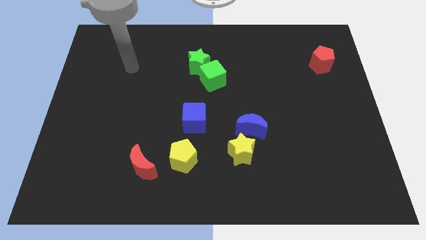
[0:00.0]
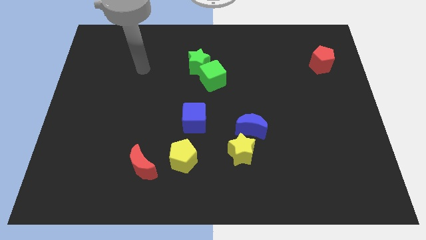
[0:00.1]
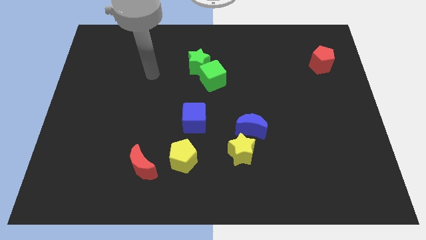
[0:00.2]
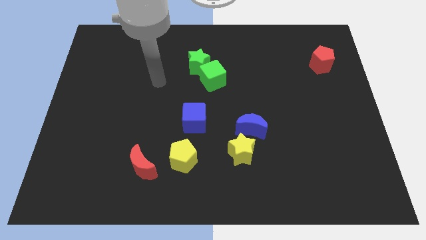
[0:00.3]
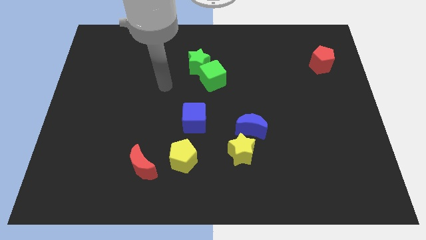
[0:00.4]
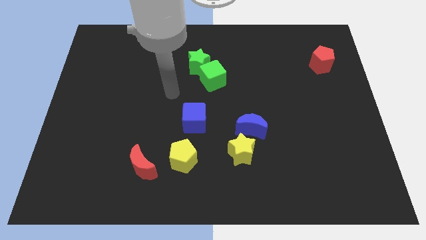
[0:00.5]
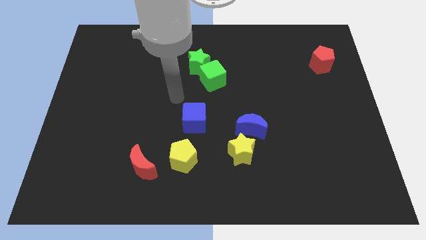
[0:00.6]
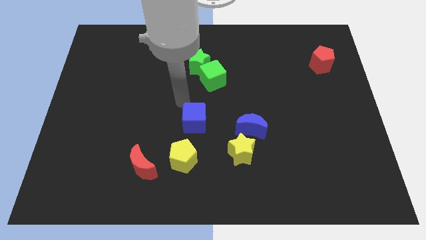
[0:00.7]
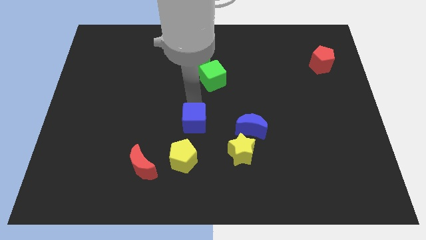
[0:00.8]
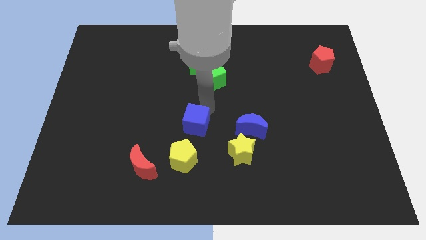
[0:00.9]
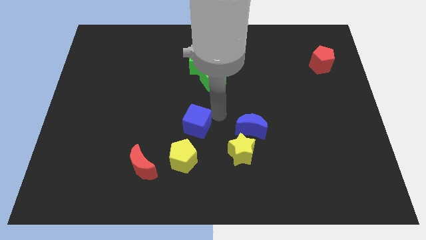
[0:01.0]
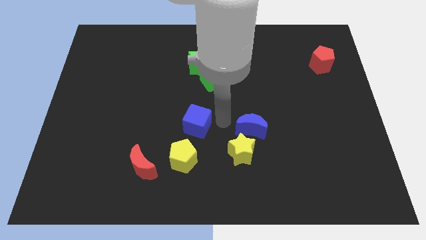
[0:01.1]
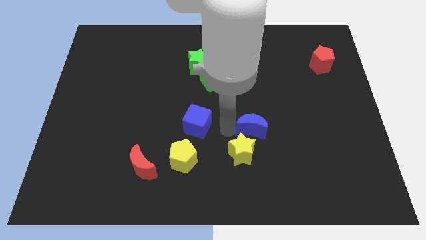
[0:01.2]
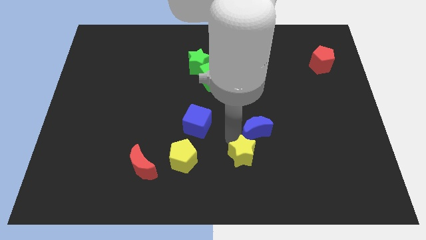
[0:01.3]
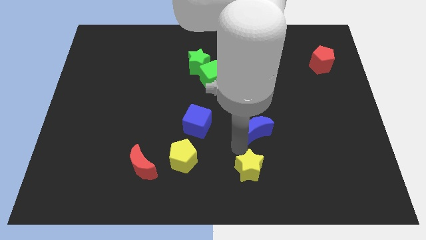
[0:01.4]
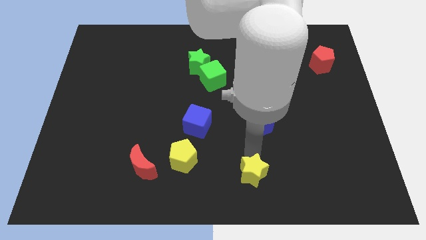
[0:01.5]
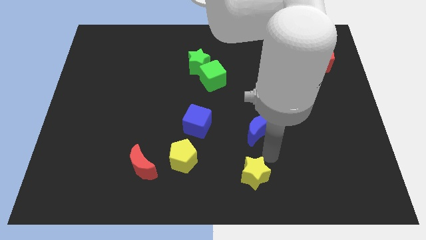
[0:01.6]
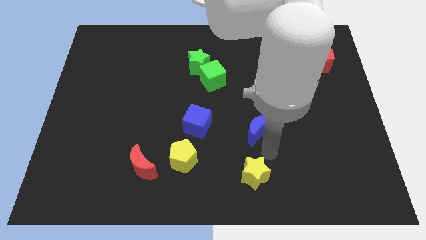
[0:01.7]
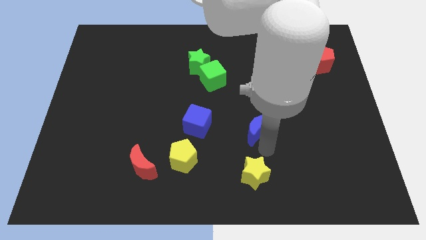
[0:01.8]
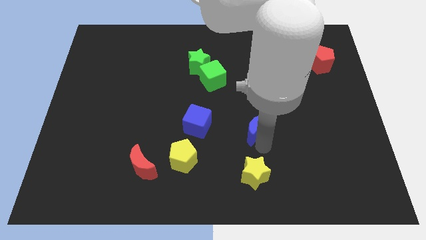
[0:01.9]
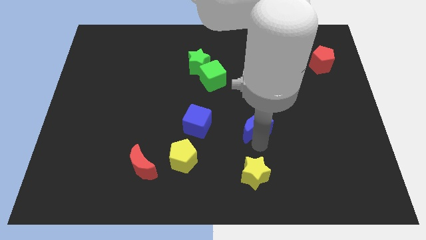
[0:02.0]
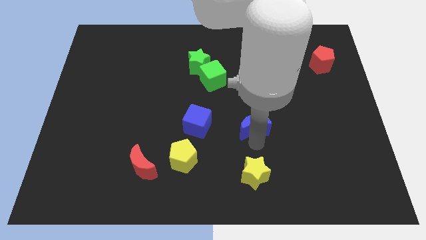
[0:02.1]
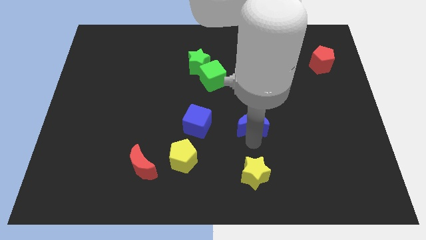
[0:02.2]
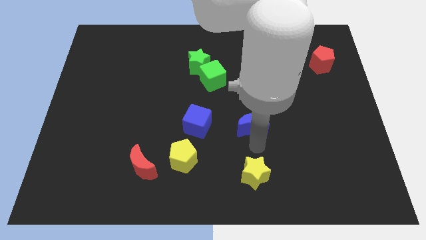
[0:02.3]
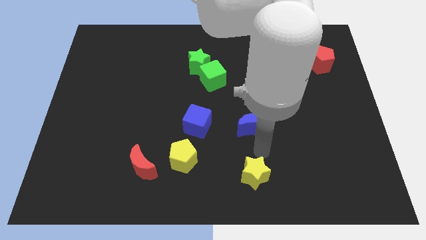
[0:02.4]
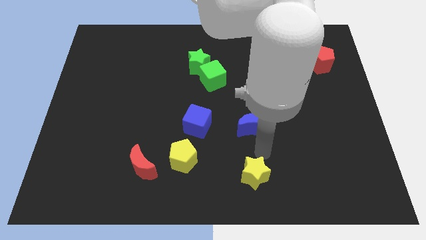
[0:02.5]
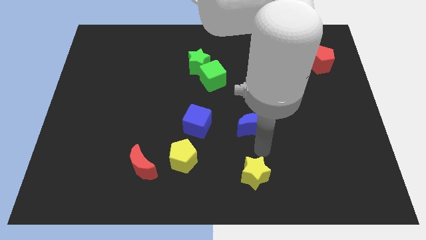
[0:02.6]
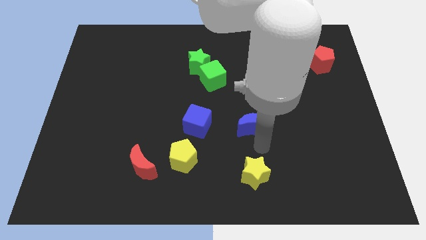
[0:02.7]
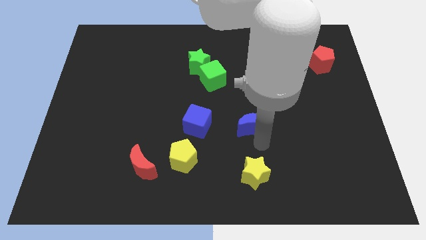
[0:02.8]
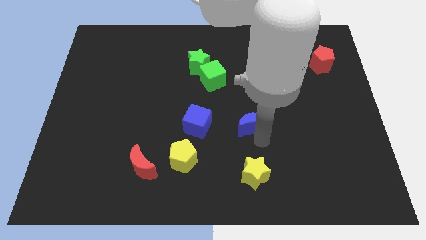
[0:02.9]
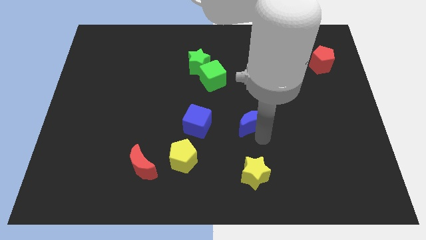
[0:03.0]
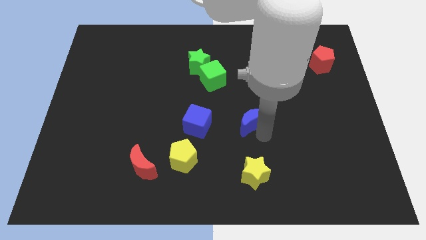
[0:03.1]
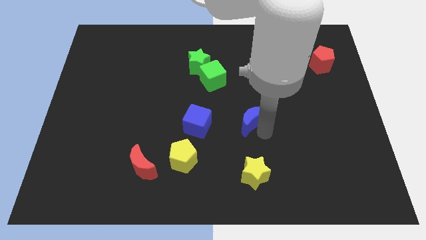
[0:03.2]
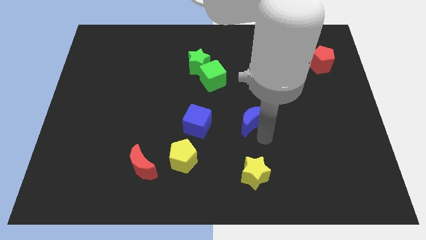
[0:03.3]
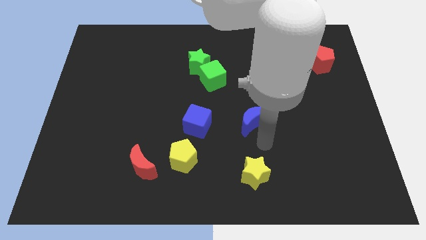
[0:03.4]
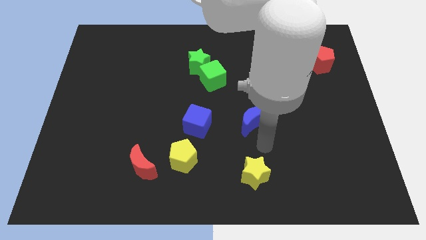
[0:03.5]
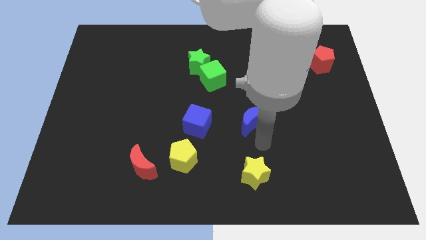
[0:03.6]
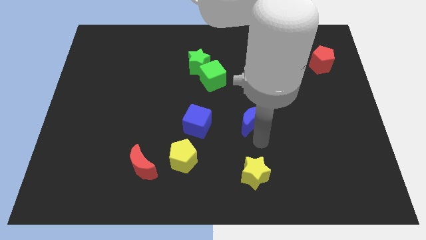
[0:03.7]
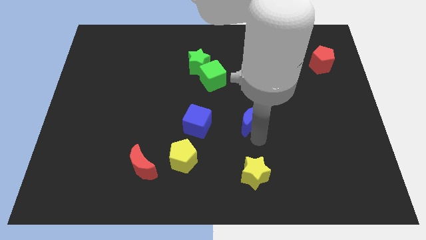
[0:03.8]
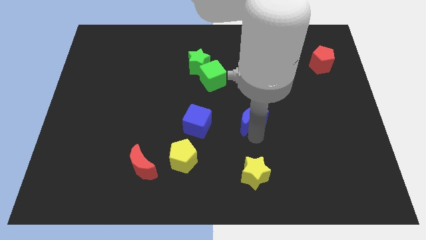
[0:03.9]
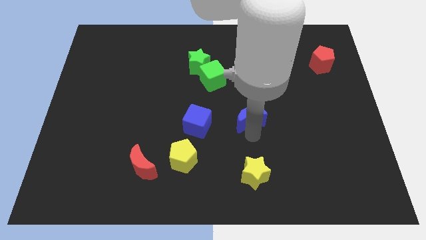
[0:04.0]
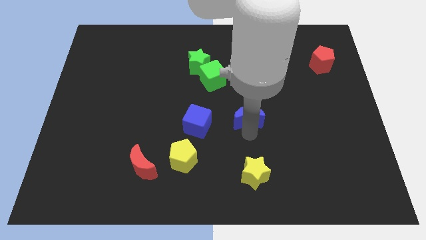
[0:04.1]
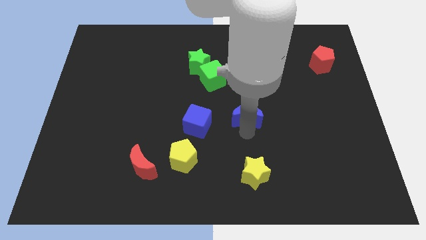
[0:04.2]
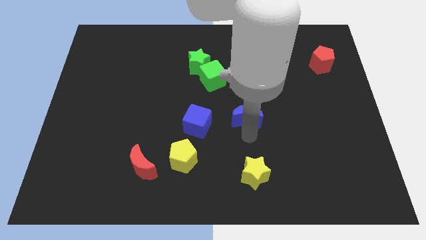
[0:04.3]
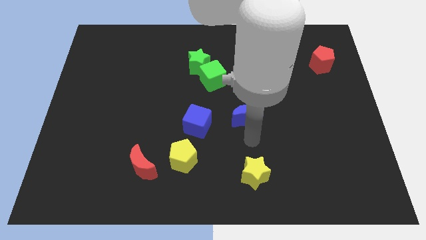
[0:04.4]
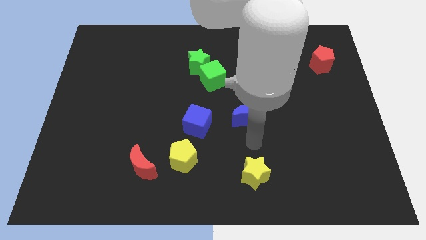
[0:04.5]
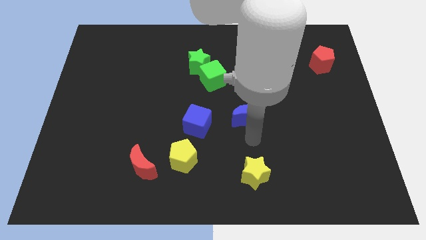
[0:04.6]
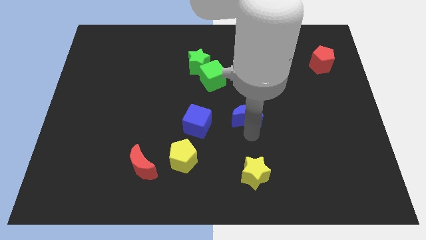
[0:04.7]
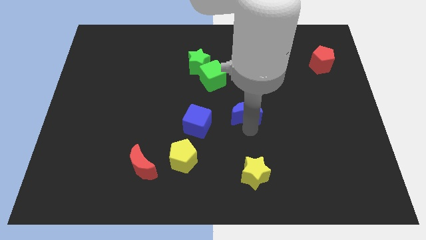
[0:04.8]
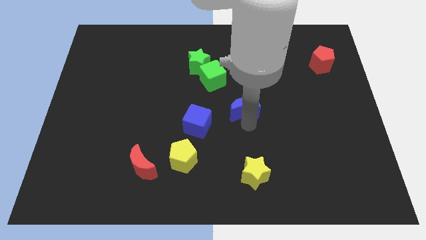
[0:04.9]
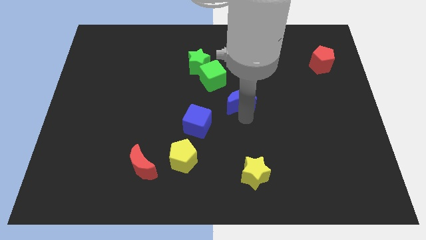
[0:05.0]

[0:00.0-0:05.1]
move the blue moon a little up

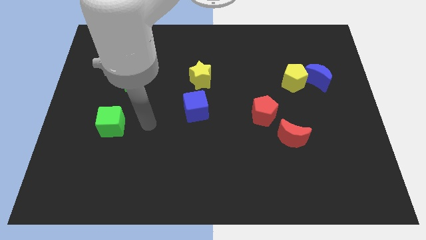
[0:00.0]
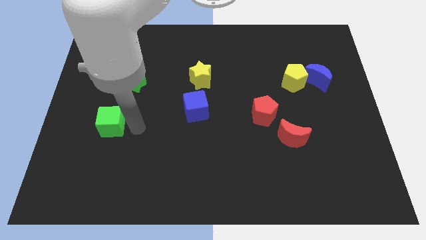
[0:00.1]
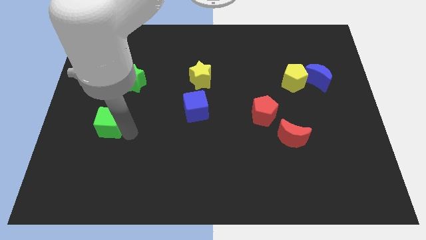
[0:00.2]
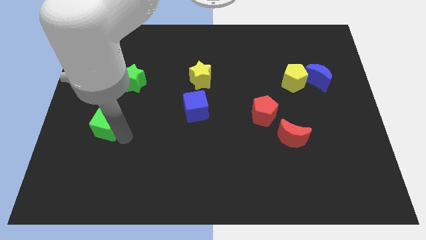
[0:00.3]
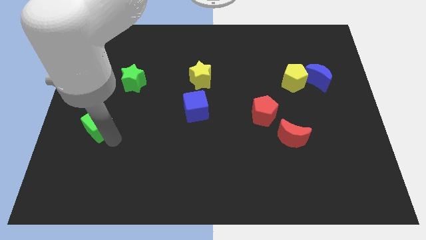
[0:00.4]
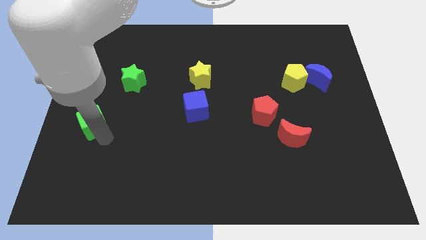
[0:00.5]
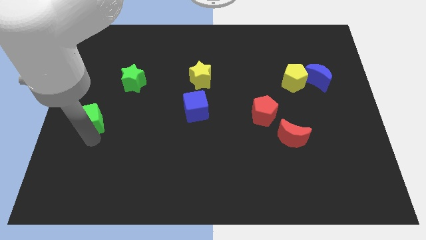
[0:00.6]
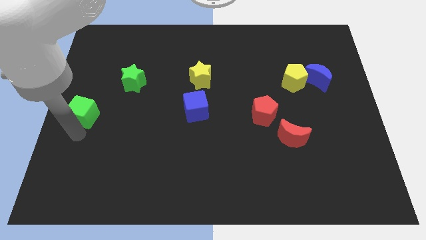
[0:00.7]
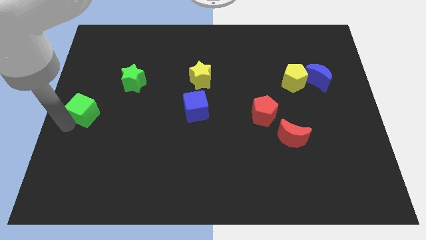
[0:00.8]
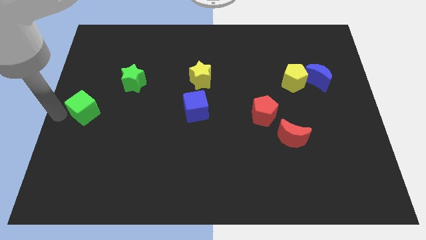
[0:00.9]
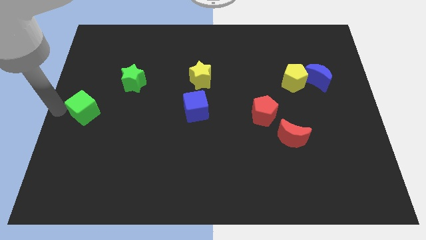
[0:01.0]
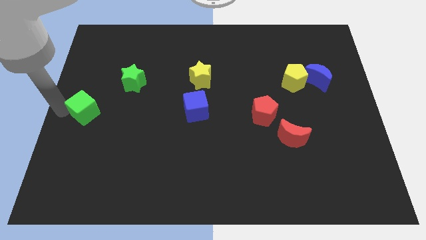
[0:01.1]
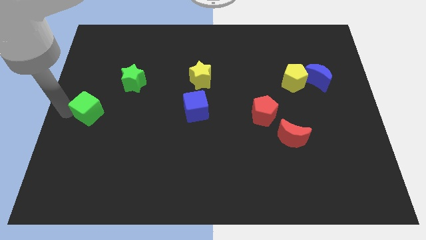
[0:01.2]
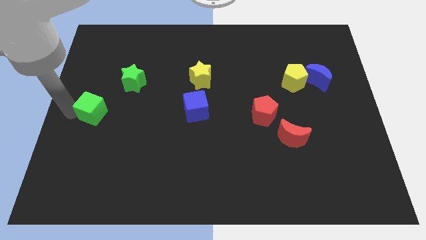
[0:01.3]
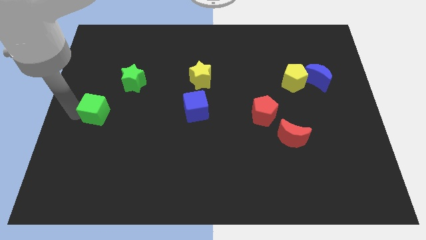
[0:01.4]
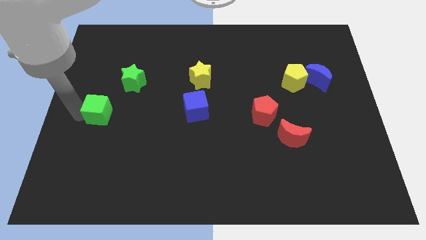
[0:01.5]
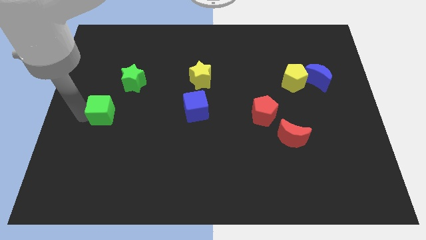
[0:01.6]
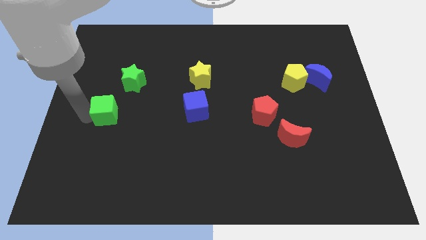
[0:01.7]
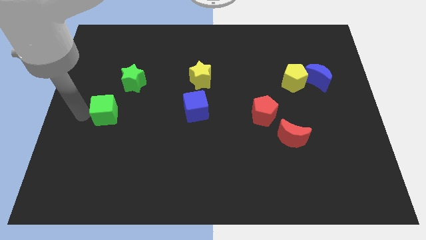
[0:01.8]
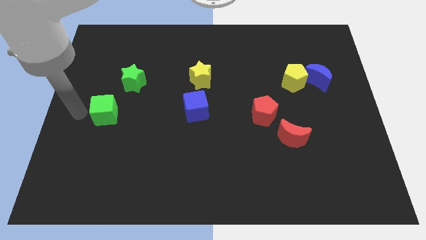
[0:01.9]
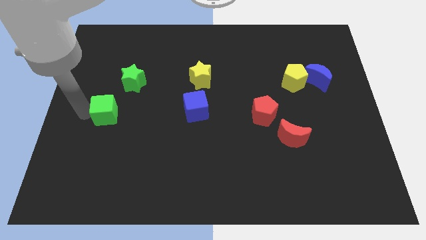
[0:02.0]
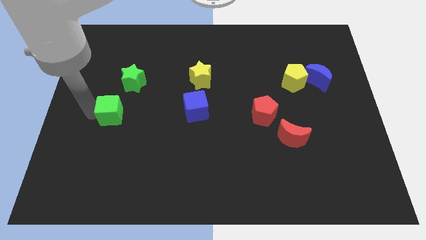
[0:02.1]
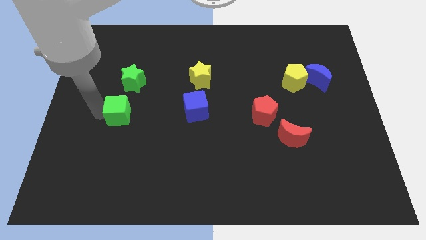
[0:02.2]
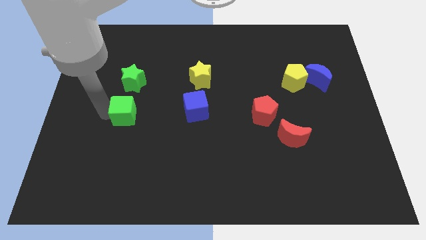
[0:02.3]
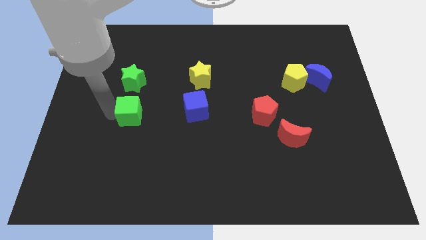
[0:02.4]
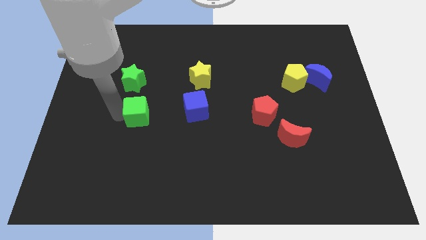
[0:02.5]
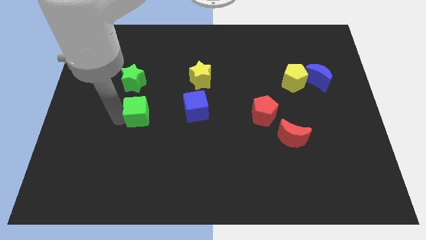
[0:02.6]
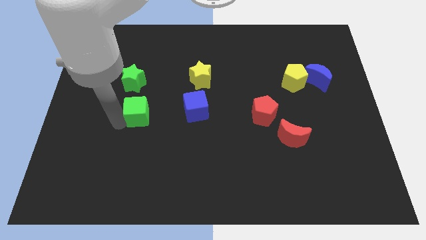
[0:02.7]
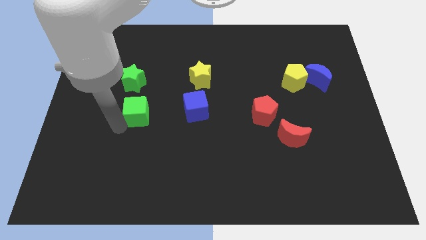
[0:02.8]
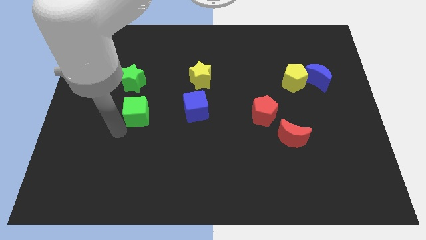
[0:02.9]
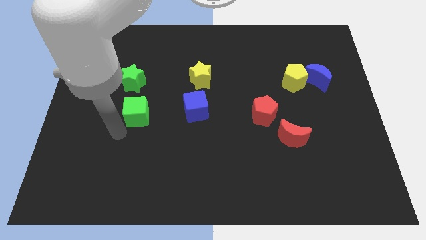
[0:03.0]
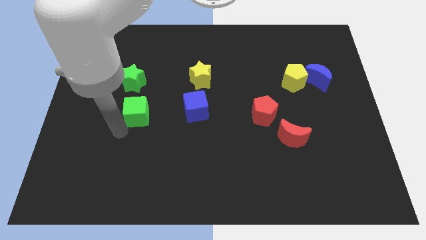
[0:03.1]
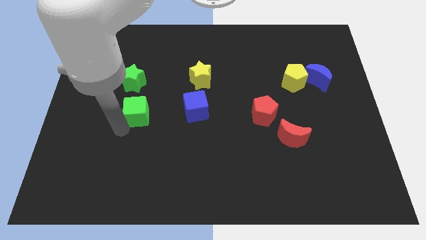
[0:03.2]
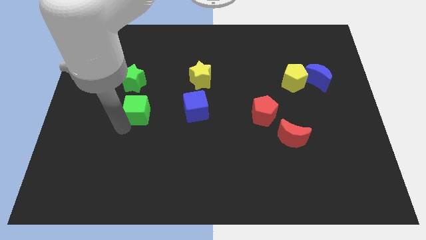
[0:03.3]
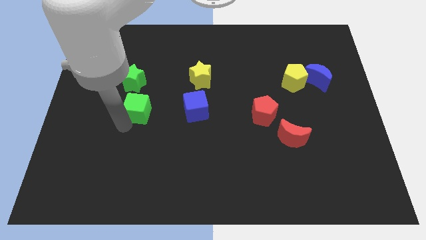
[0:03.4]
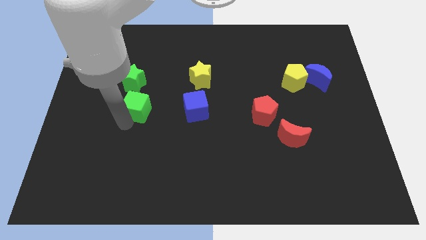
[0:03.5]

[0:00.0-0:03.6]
slide the green cube diagonally up and to the right a little
